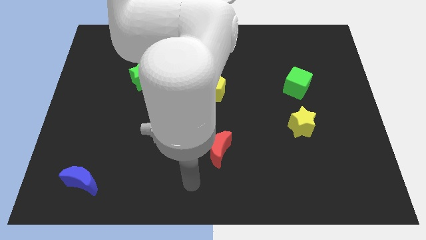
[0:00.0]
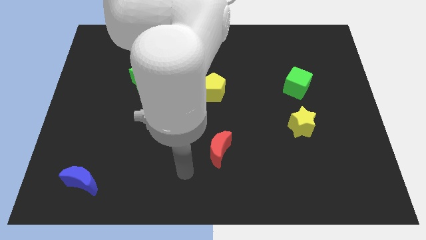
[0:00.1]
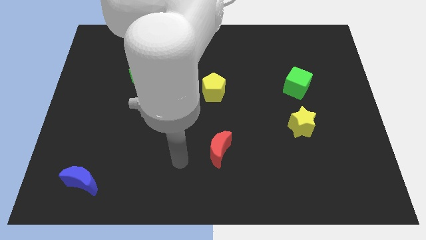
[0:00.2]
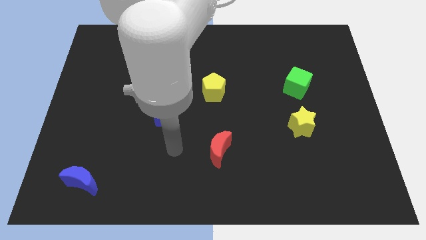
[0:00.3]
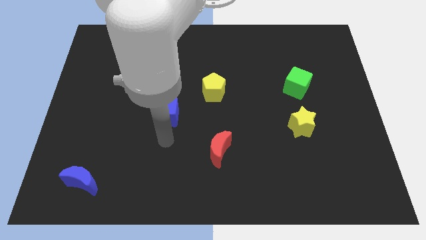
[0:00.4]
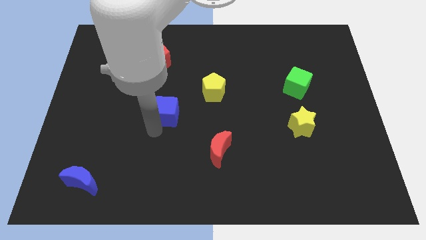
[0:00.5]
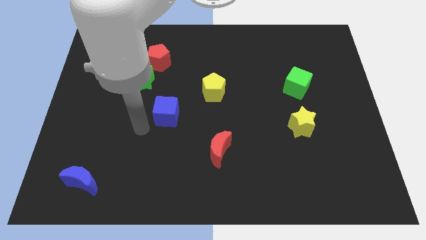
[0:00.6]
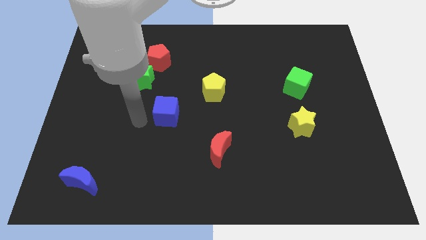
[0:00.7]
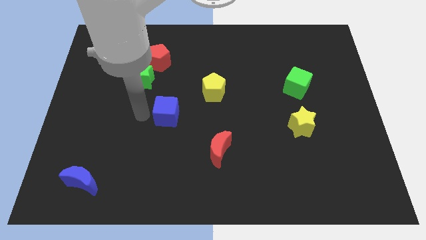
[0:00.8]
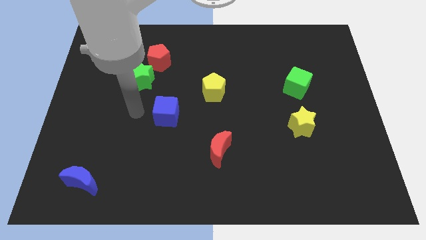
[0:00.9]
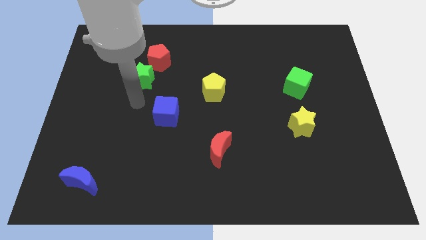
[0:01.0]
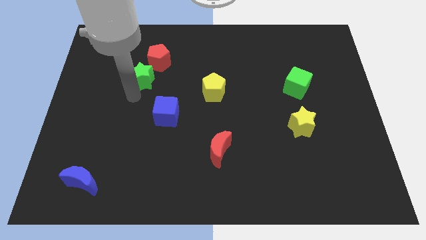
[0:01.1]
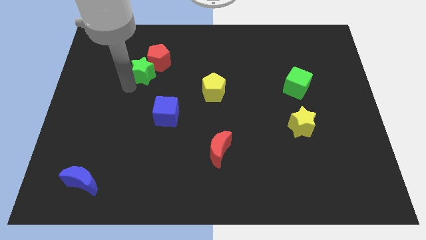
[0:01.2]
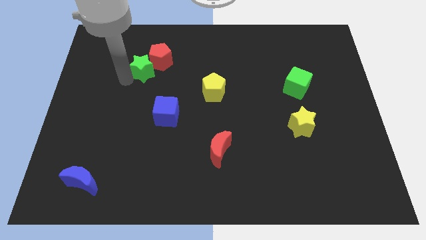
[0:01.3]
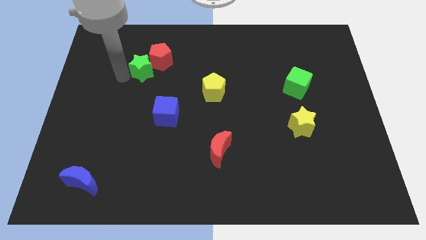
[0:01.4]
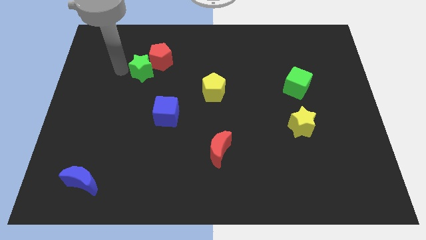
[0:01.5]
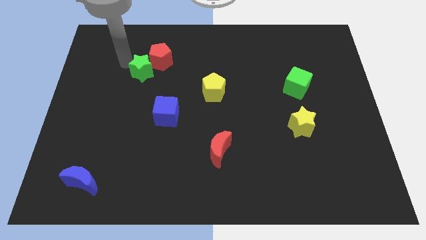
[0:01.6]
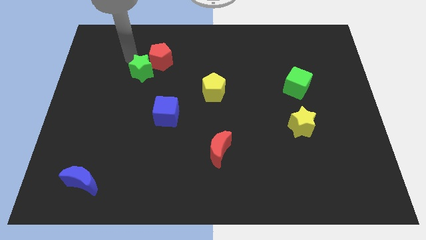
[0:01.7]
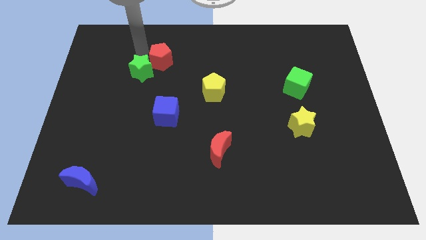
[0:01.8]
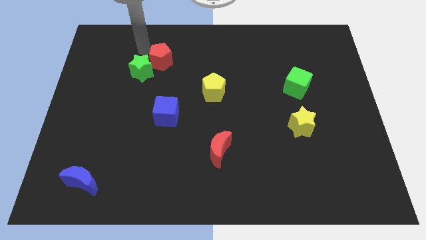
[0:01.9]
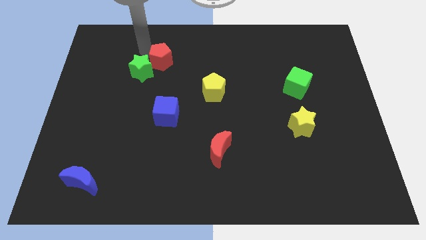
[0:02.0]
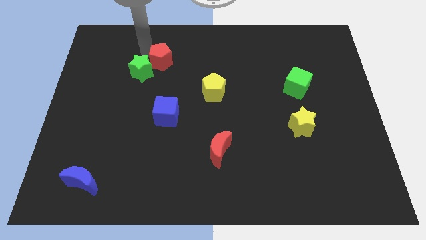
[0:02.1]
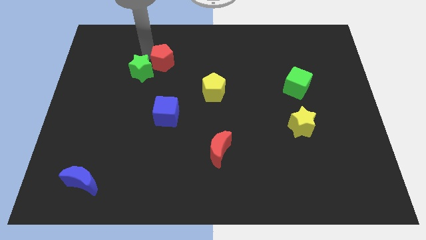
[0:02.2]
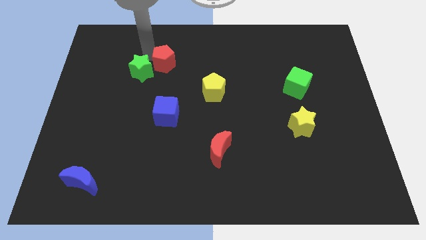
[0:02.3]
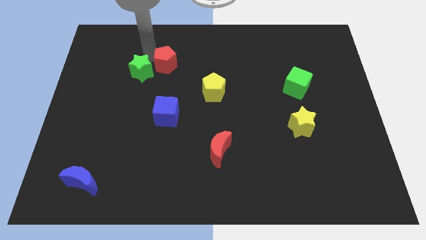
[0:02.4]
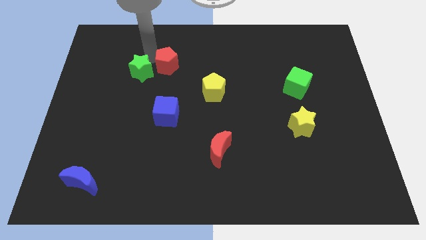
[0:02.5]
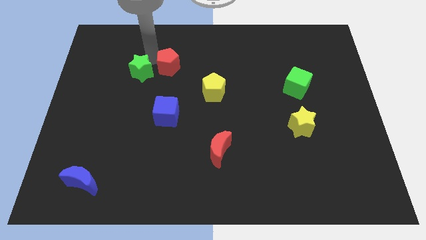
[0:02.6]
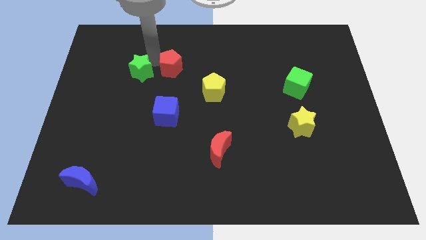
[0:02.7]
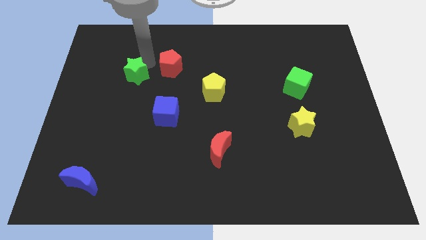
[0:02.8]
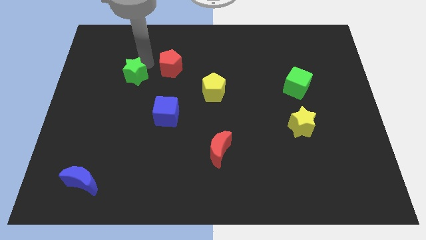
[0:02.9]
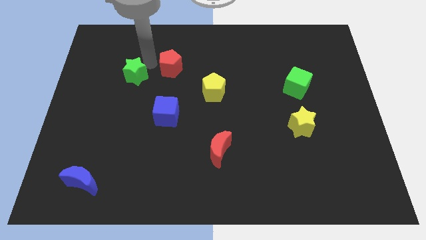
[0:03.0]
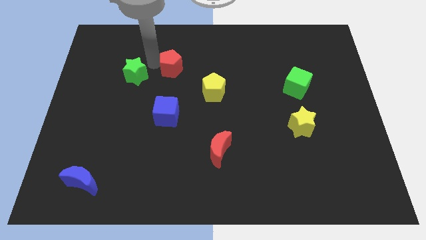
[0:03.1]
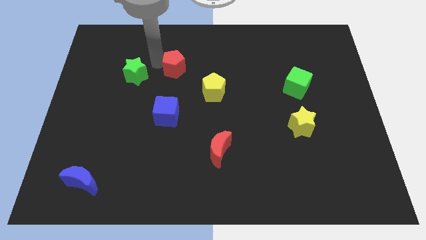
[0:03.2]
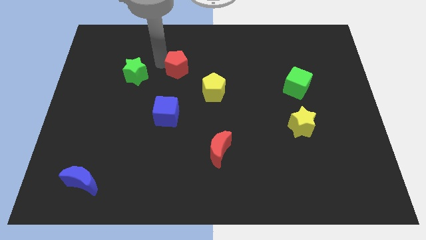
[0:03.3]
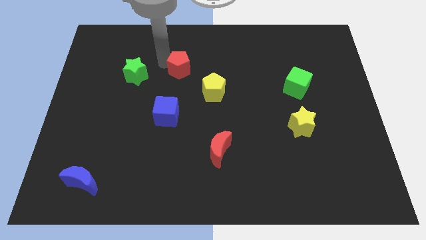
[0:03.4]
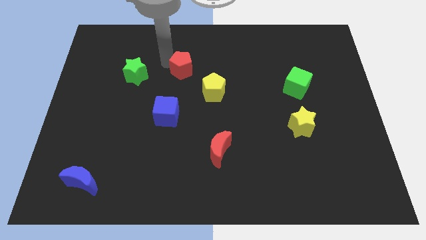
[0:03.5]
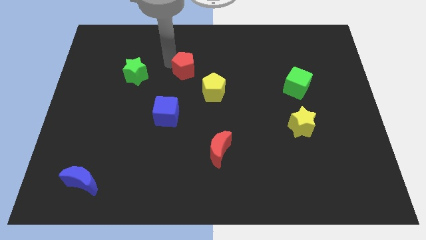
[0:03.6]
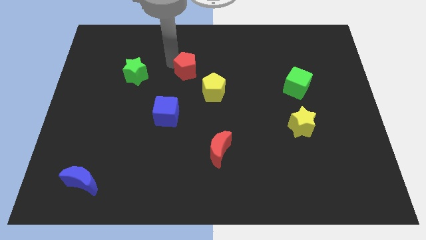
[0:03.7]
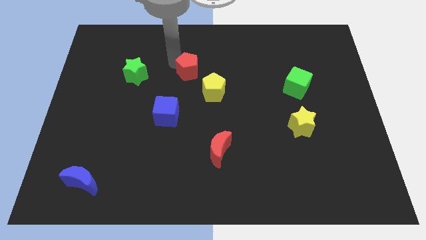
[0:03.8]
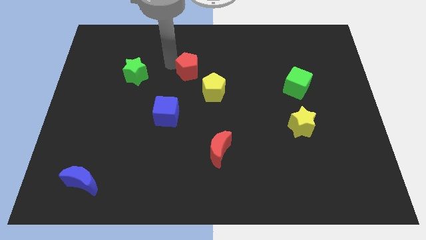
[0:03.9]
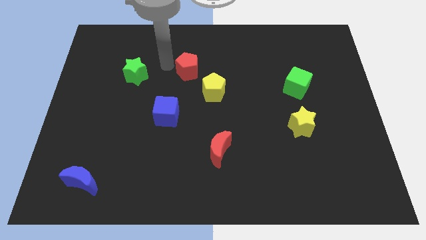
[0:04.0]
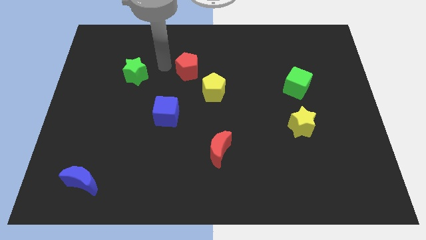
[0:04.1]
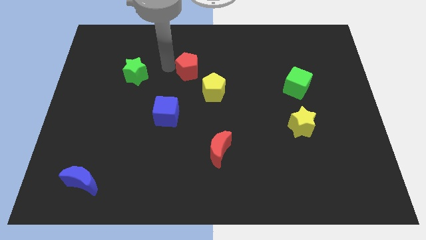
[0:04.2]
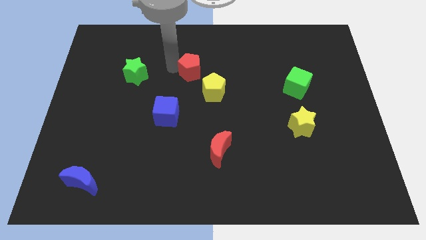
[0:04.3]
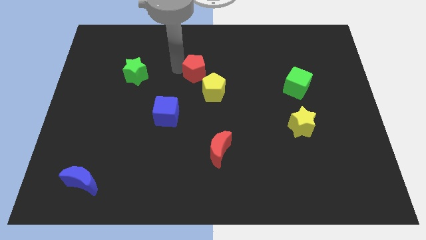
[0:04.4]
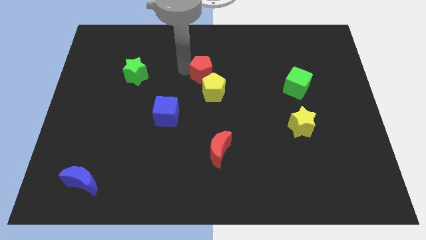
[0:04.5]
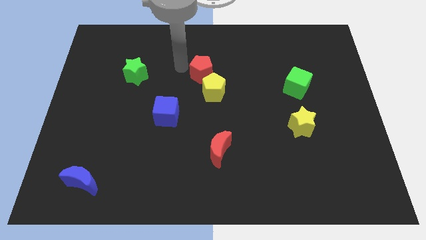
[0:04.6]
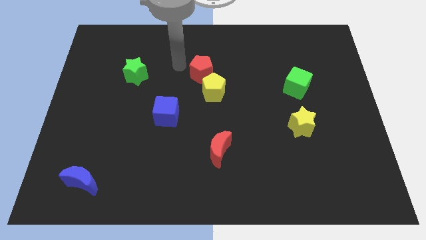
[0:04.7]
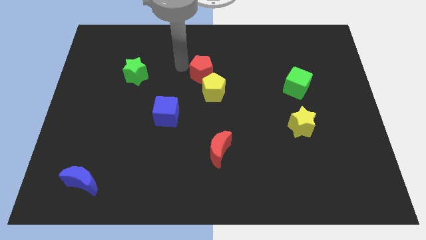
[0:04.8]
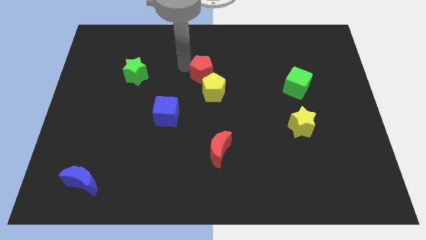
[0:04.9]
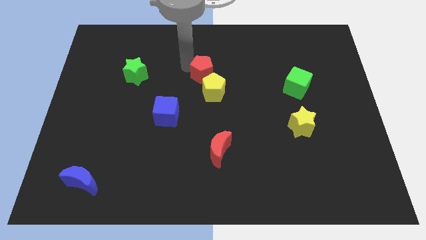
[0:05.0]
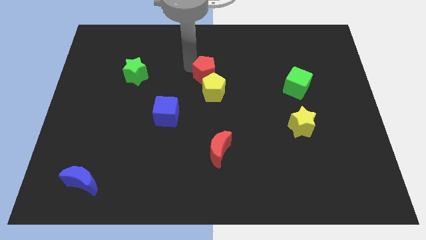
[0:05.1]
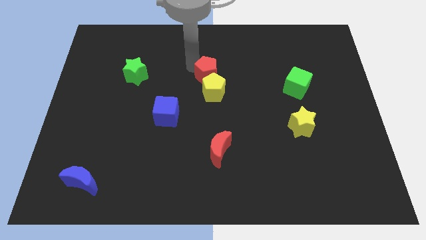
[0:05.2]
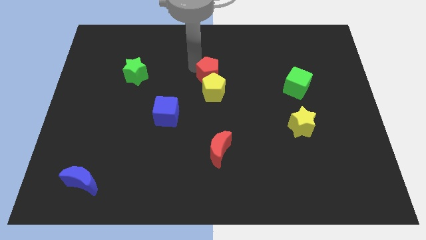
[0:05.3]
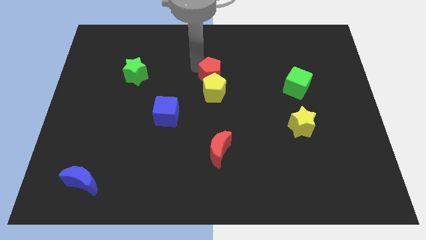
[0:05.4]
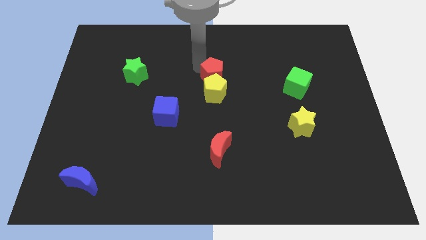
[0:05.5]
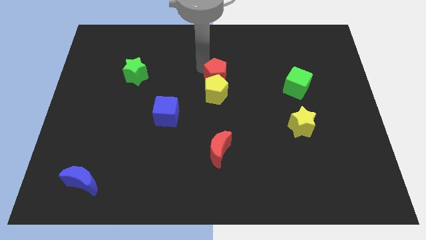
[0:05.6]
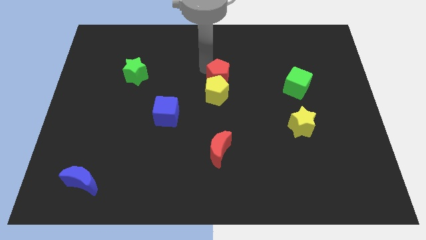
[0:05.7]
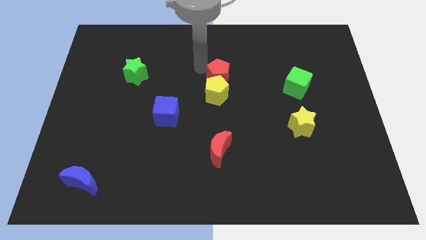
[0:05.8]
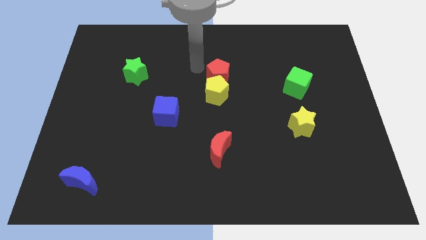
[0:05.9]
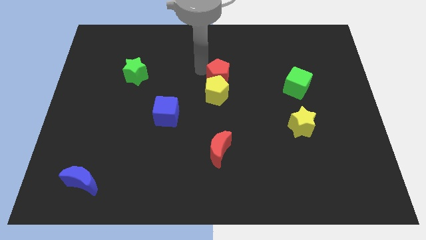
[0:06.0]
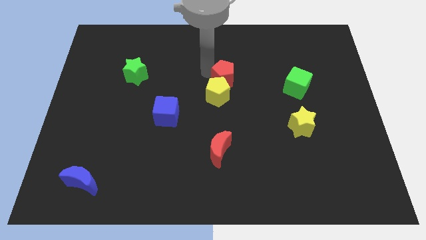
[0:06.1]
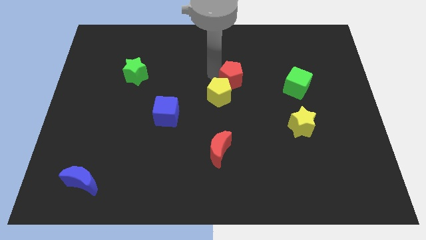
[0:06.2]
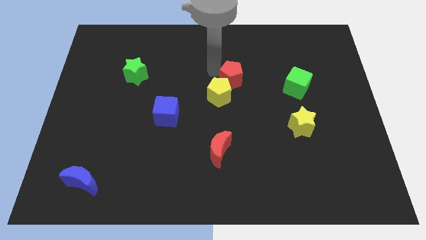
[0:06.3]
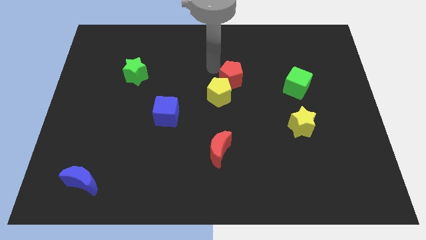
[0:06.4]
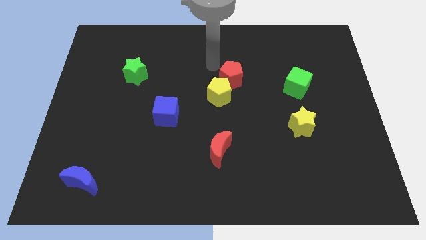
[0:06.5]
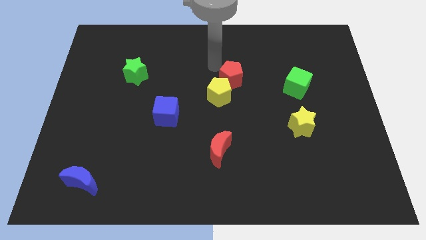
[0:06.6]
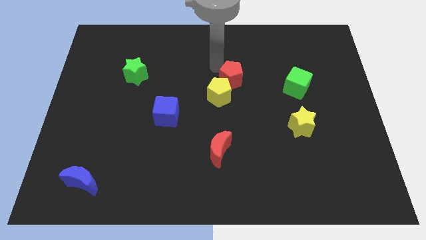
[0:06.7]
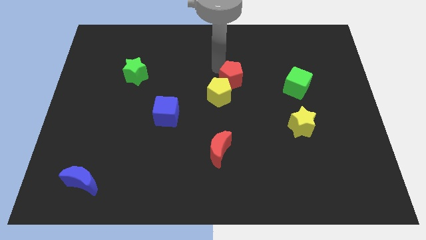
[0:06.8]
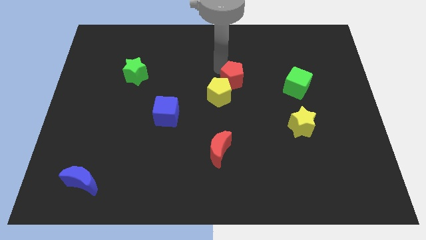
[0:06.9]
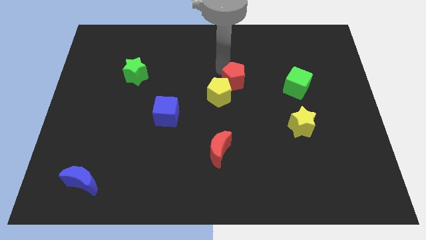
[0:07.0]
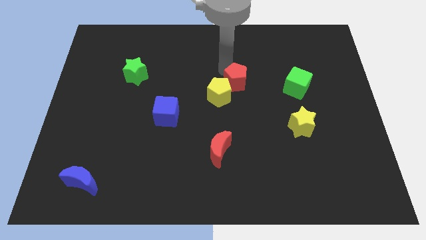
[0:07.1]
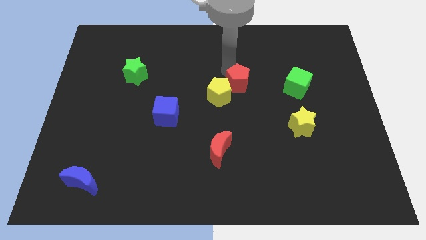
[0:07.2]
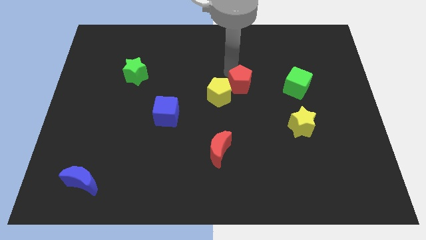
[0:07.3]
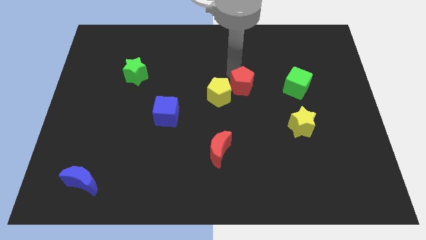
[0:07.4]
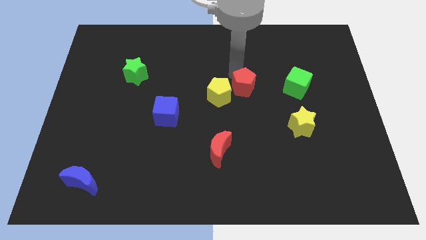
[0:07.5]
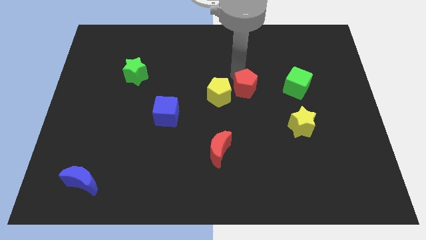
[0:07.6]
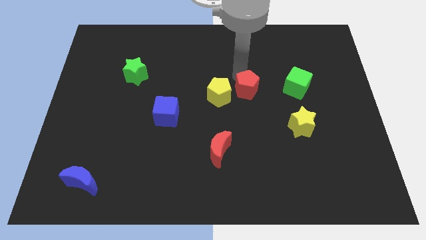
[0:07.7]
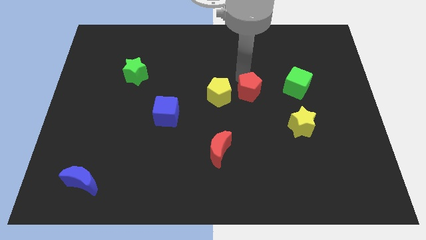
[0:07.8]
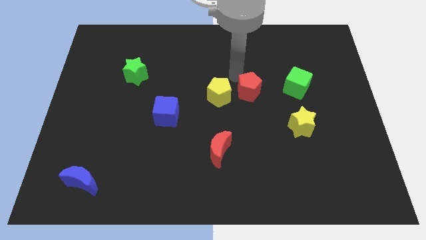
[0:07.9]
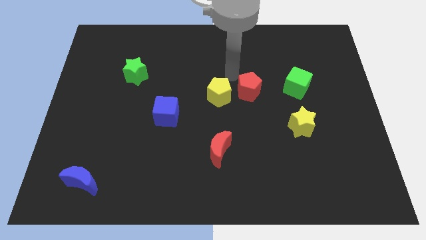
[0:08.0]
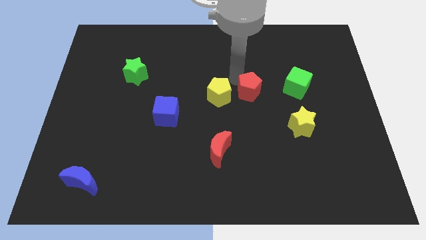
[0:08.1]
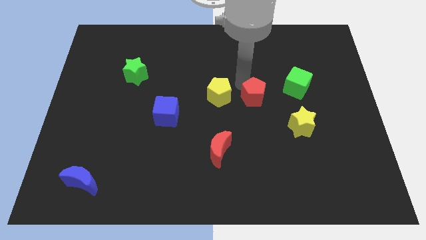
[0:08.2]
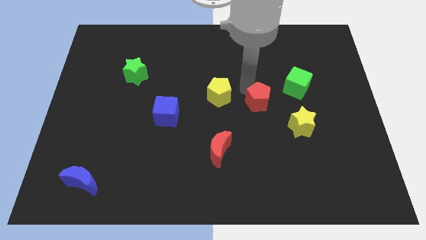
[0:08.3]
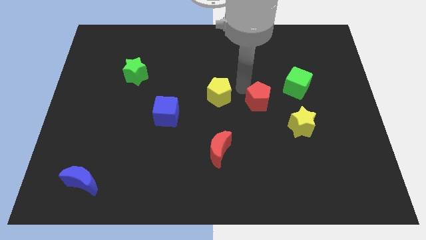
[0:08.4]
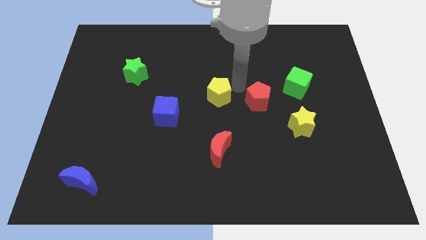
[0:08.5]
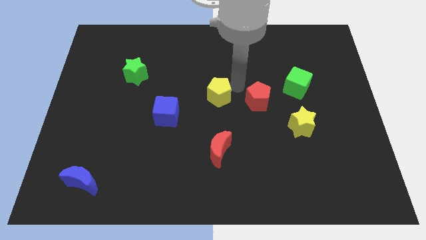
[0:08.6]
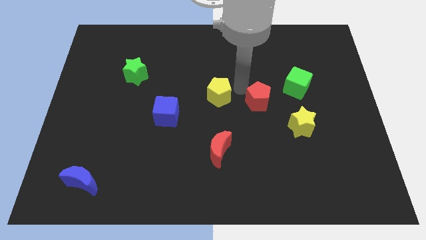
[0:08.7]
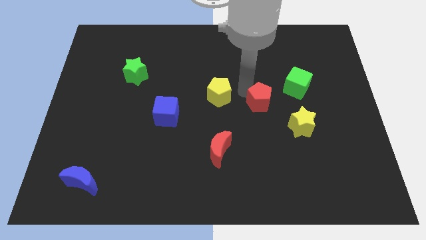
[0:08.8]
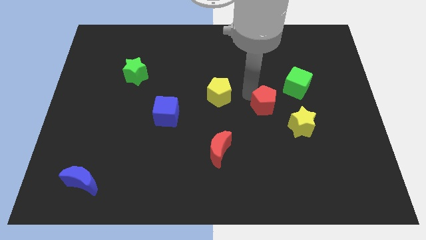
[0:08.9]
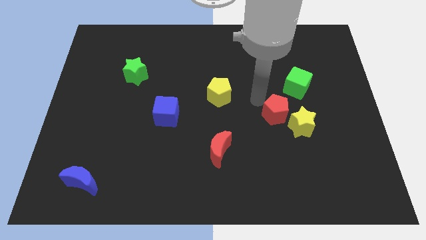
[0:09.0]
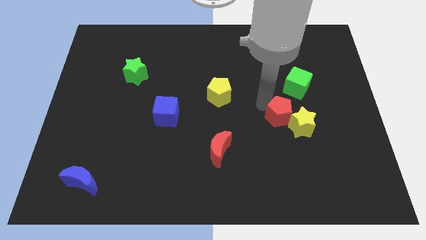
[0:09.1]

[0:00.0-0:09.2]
move the red pentagon close to the yellow star
